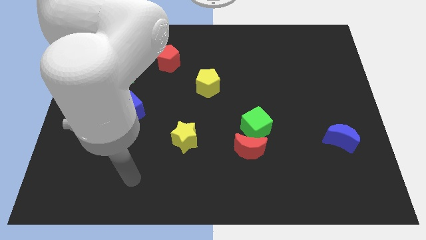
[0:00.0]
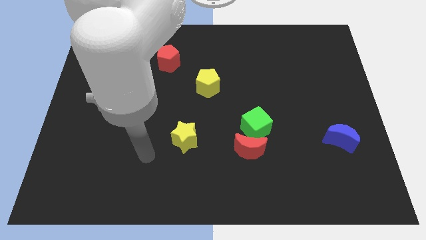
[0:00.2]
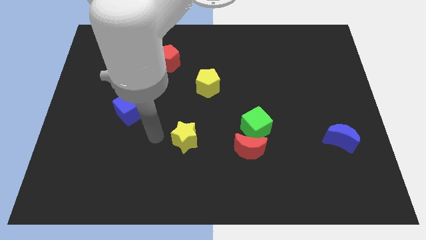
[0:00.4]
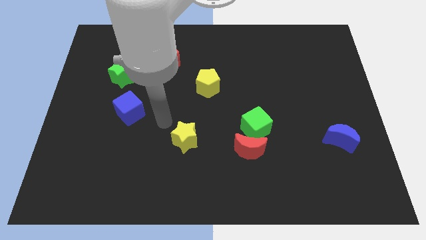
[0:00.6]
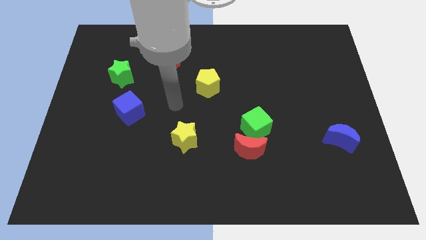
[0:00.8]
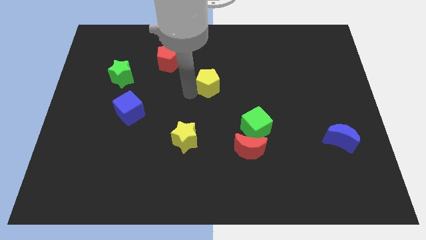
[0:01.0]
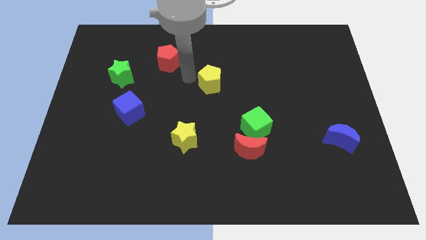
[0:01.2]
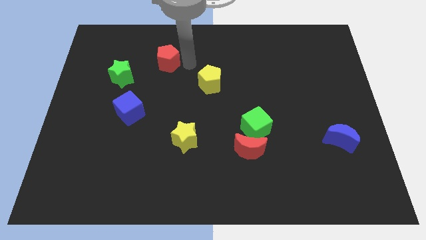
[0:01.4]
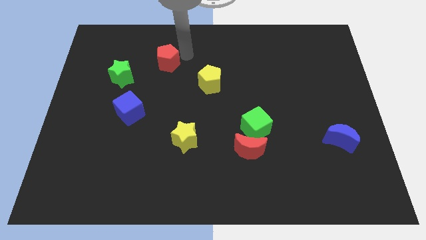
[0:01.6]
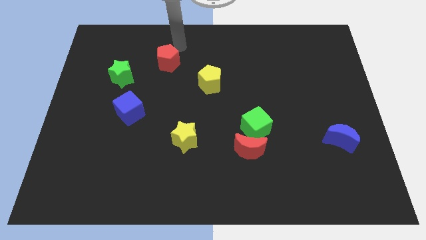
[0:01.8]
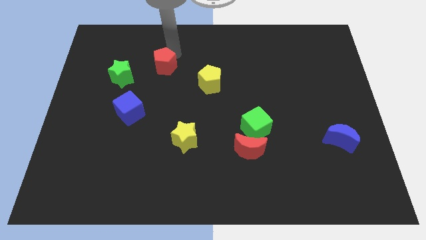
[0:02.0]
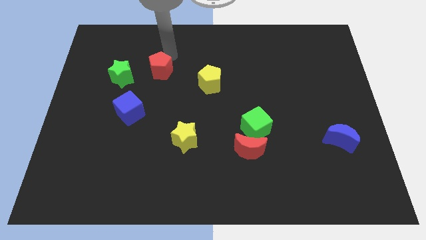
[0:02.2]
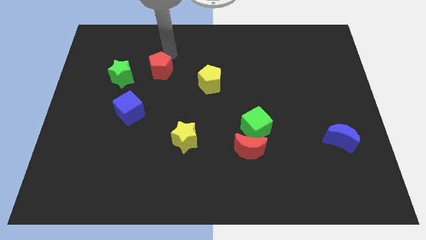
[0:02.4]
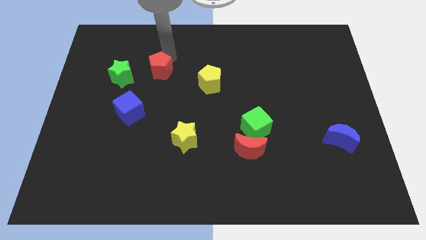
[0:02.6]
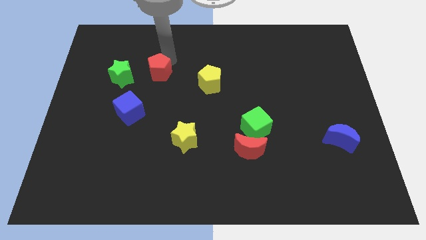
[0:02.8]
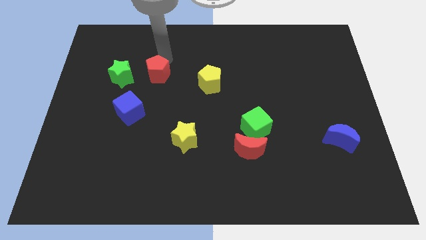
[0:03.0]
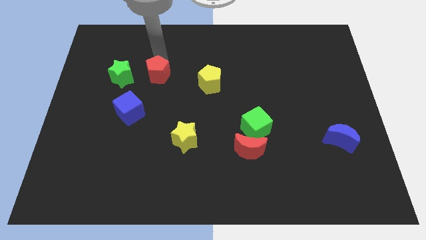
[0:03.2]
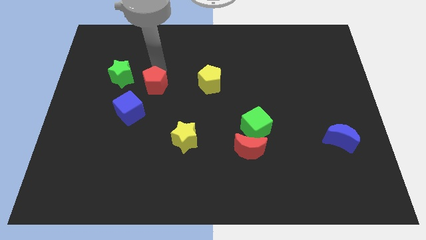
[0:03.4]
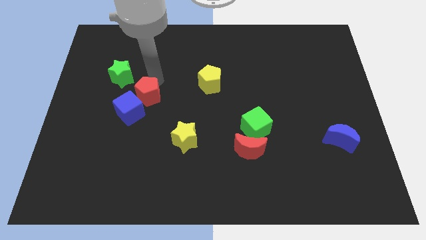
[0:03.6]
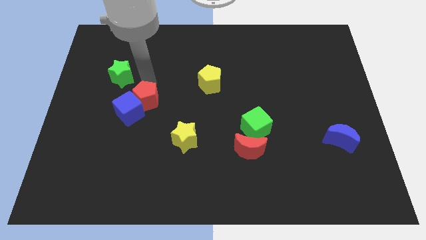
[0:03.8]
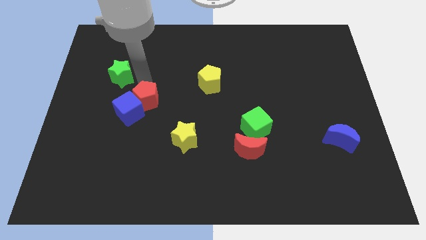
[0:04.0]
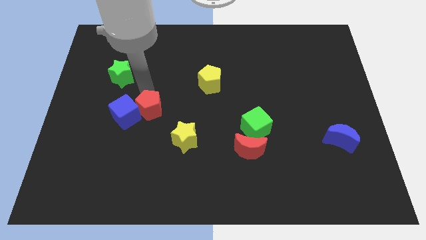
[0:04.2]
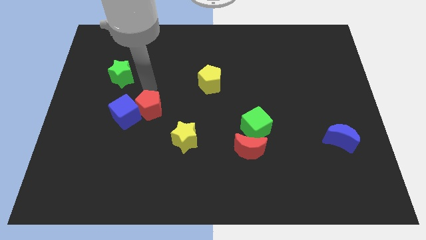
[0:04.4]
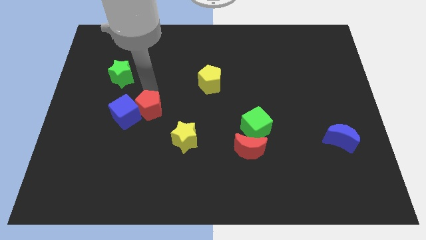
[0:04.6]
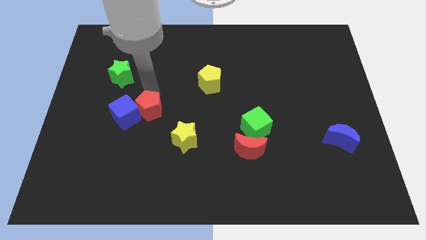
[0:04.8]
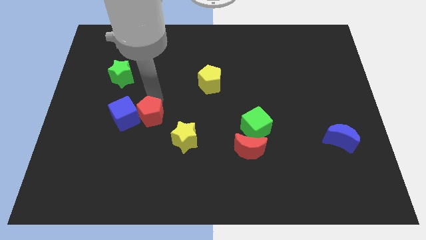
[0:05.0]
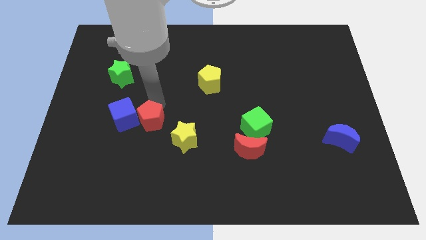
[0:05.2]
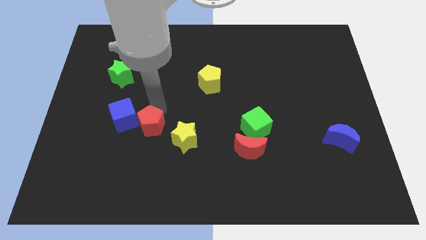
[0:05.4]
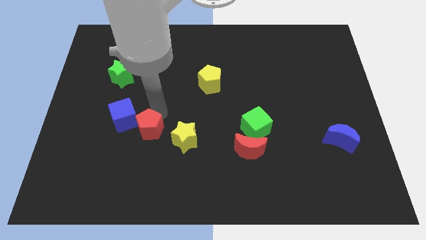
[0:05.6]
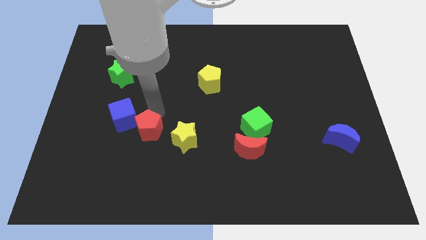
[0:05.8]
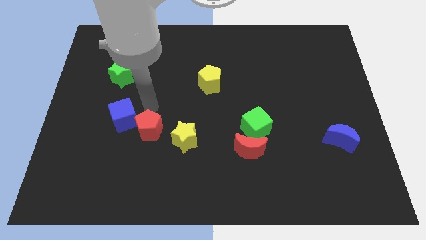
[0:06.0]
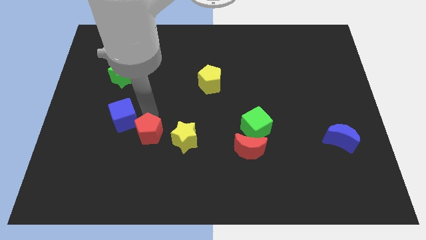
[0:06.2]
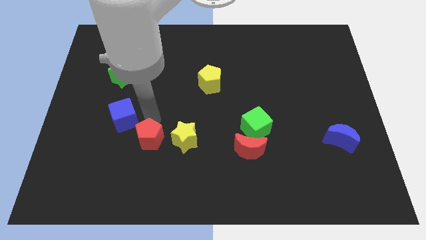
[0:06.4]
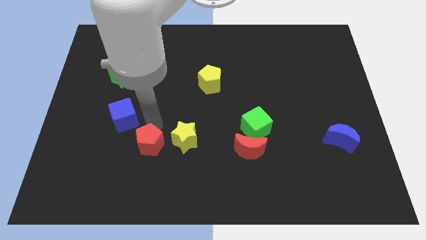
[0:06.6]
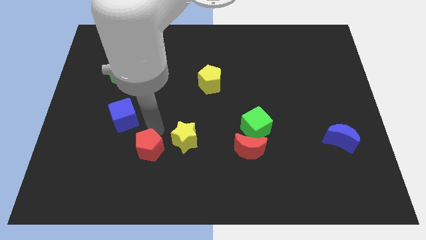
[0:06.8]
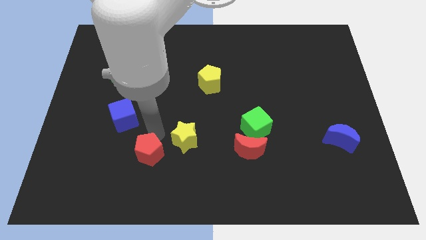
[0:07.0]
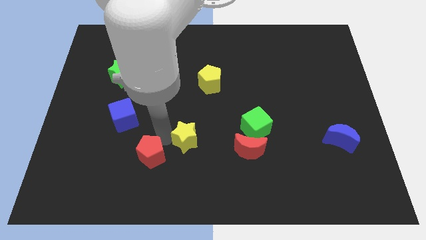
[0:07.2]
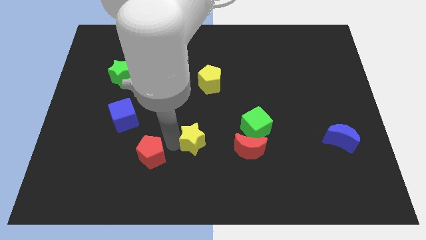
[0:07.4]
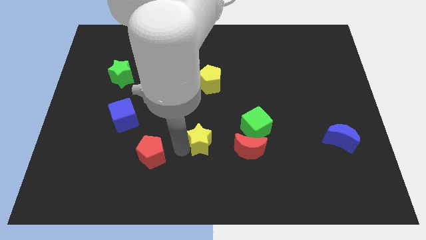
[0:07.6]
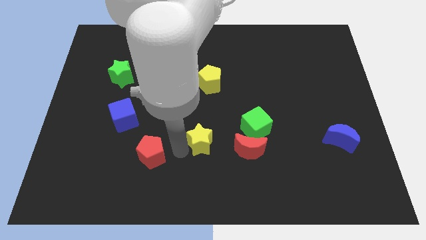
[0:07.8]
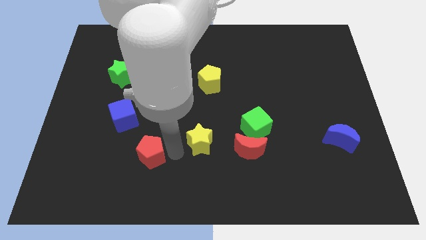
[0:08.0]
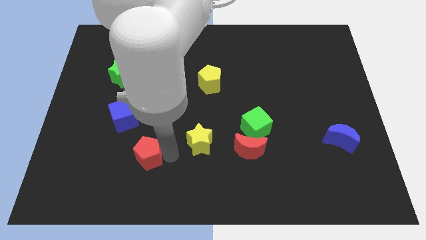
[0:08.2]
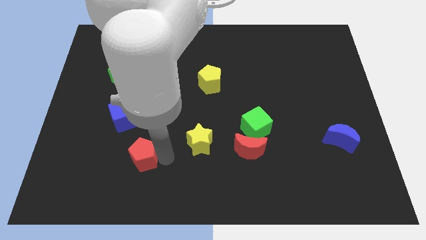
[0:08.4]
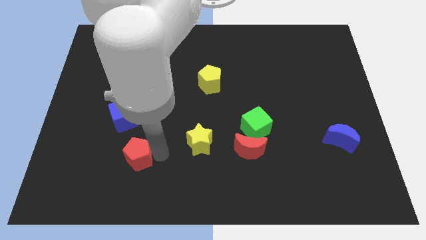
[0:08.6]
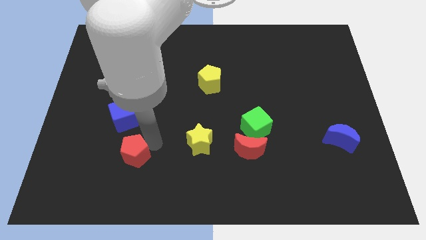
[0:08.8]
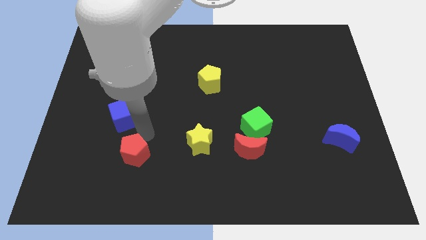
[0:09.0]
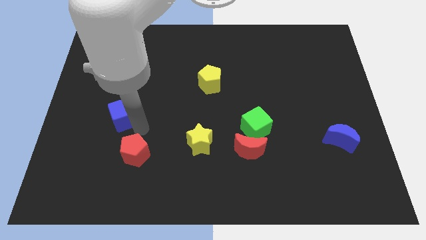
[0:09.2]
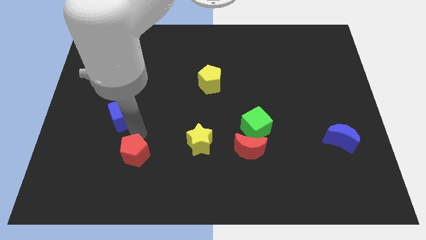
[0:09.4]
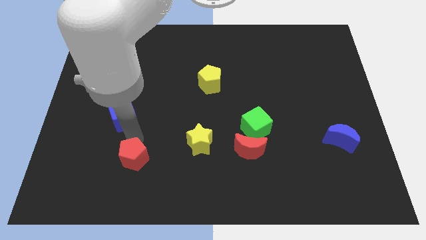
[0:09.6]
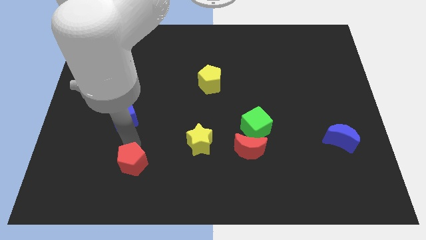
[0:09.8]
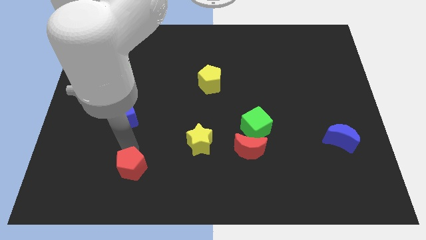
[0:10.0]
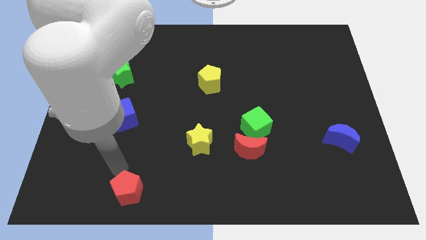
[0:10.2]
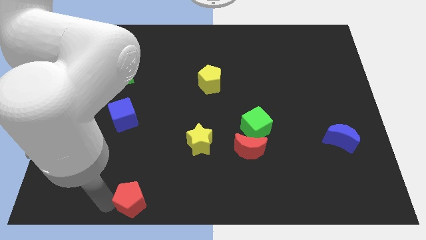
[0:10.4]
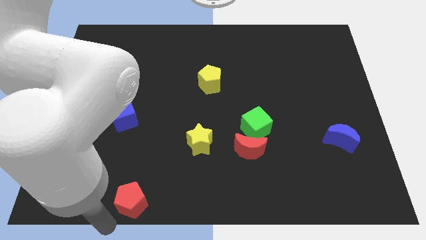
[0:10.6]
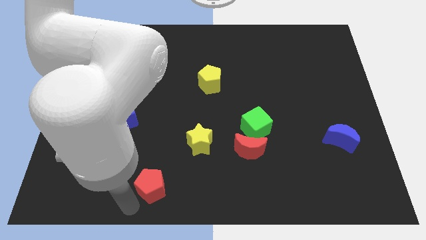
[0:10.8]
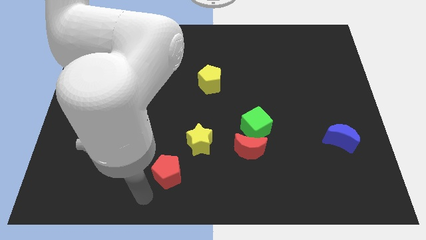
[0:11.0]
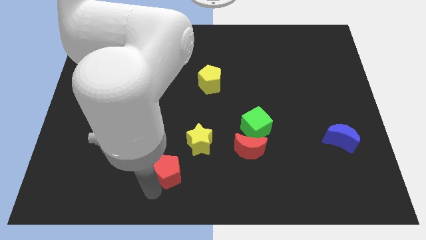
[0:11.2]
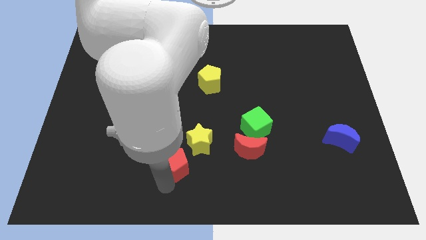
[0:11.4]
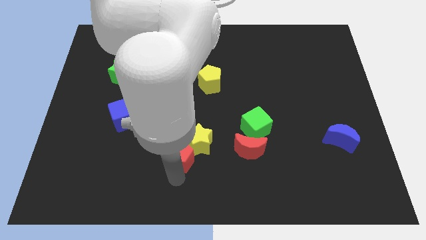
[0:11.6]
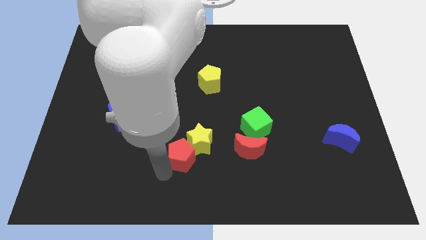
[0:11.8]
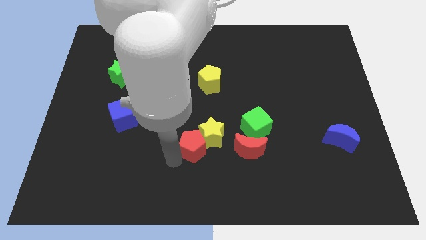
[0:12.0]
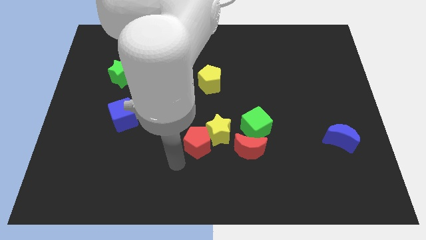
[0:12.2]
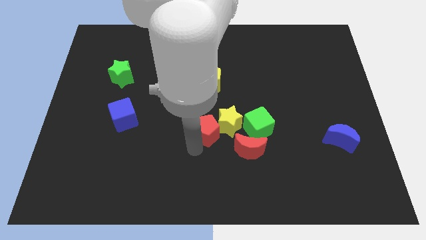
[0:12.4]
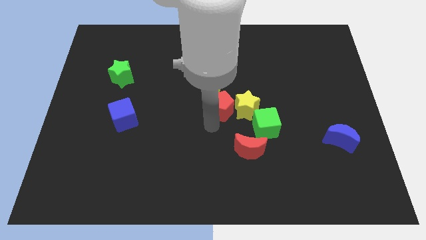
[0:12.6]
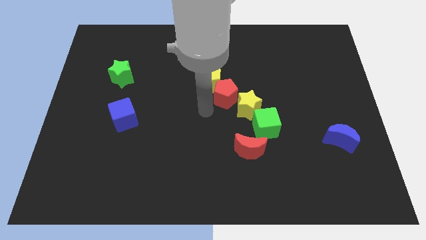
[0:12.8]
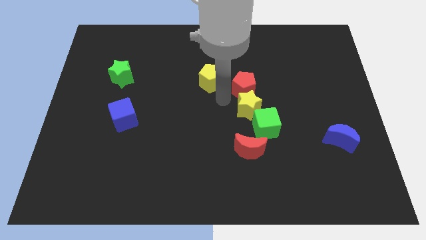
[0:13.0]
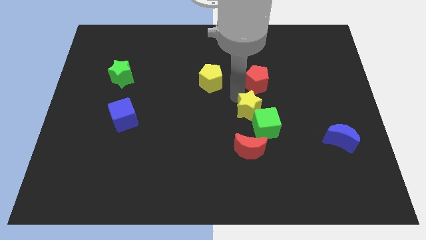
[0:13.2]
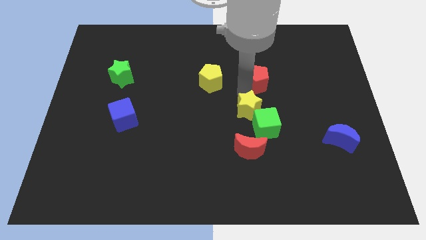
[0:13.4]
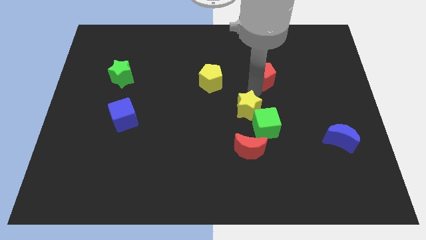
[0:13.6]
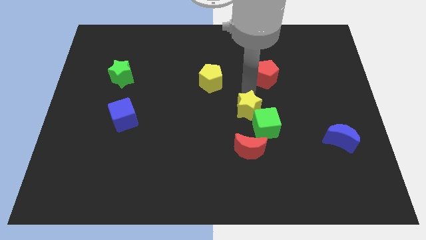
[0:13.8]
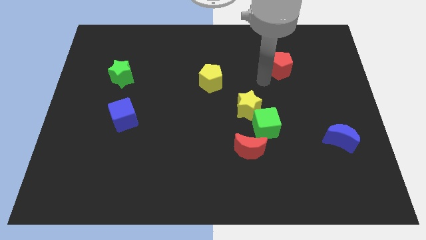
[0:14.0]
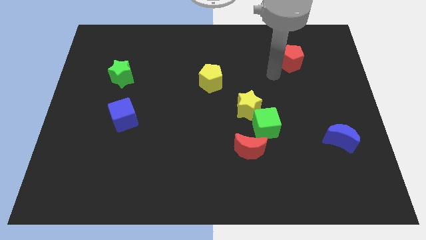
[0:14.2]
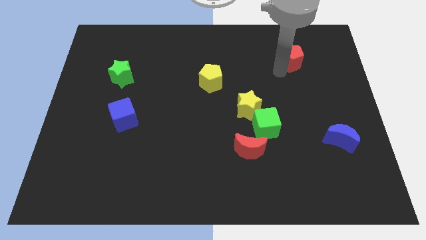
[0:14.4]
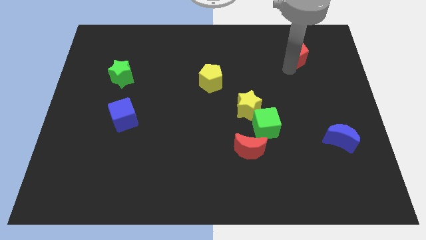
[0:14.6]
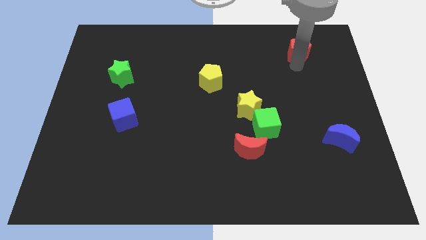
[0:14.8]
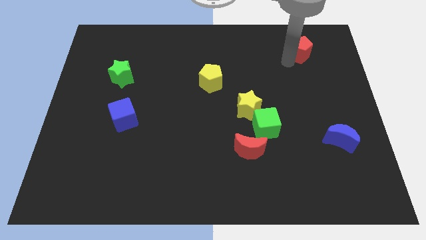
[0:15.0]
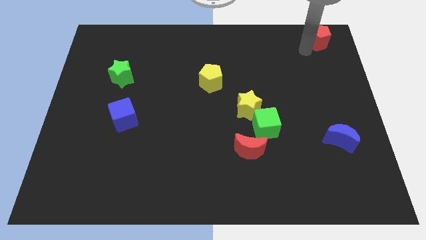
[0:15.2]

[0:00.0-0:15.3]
move the red pentagon to the upper right corner
